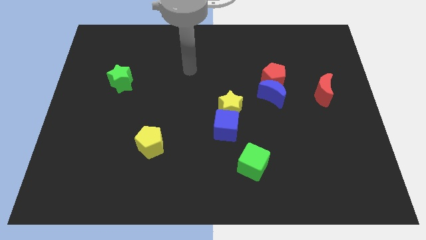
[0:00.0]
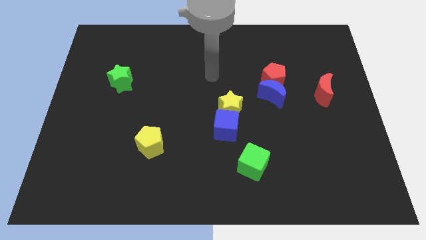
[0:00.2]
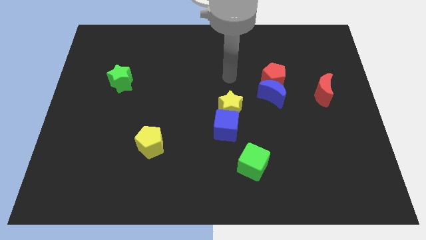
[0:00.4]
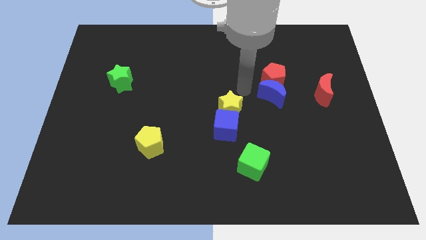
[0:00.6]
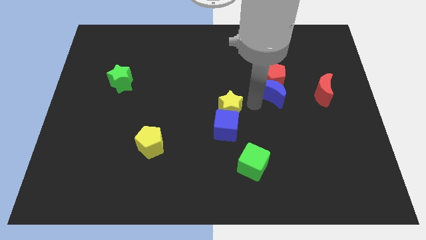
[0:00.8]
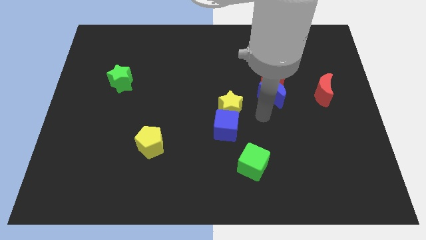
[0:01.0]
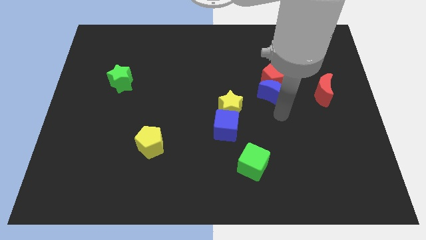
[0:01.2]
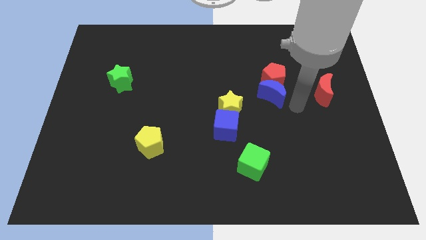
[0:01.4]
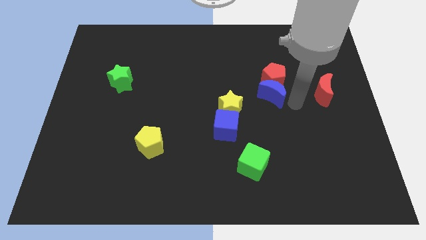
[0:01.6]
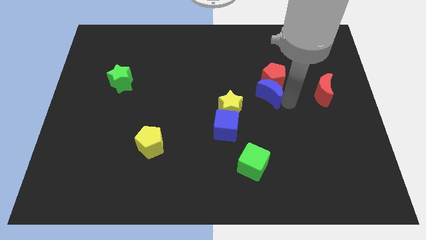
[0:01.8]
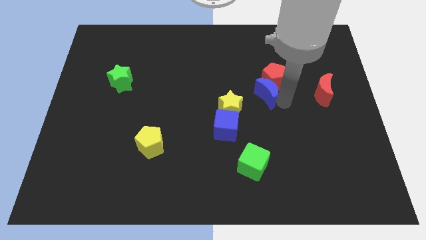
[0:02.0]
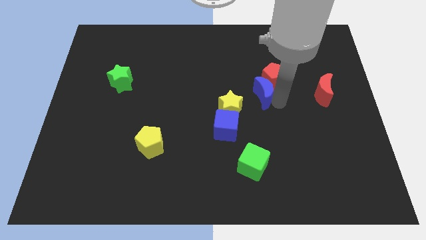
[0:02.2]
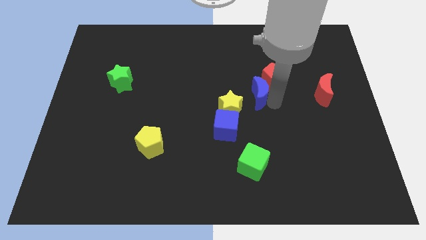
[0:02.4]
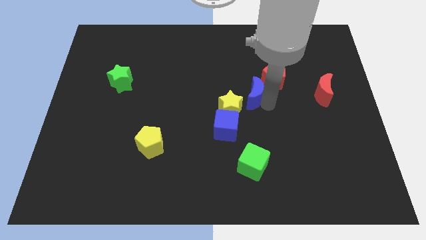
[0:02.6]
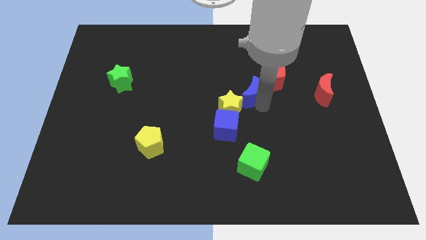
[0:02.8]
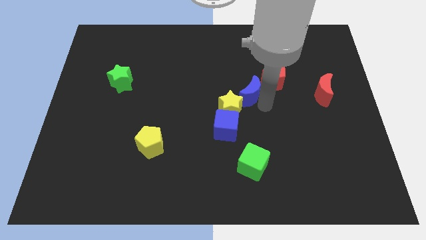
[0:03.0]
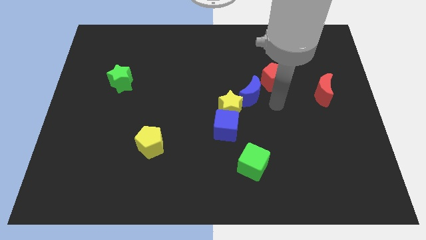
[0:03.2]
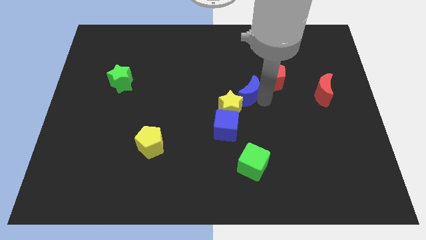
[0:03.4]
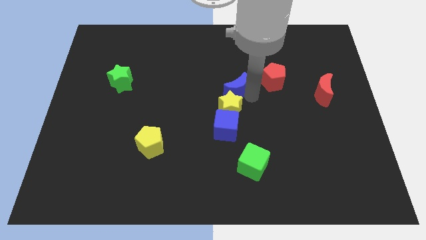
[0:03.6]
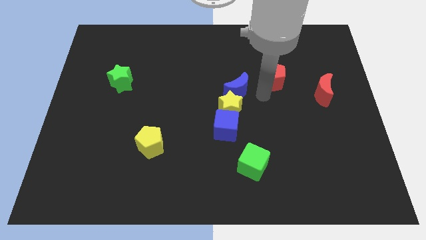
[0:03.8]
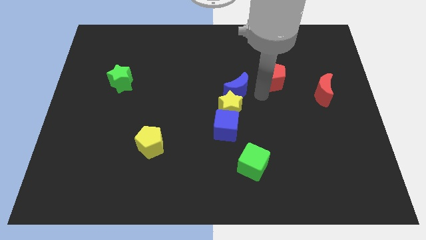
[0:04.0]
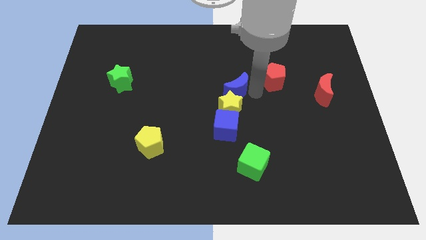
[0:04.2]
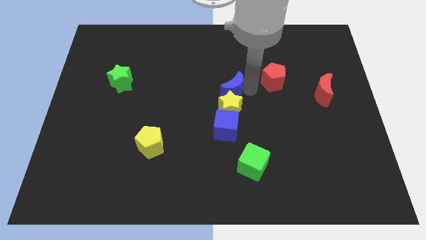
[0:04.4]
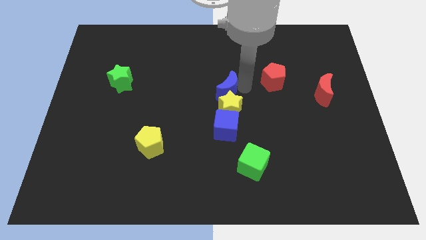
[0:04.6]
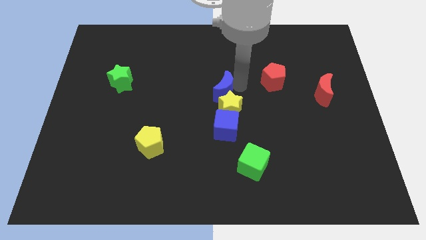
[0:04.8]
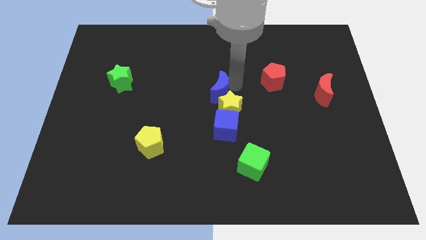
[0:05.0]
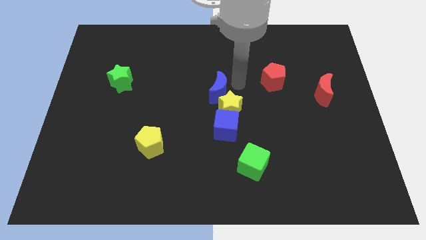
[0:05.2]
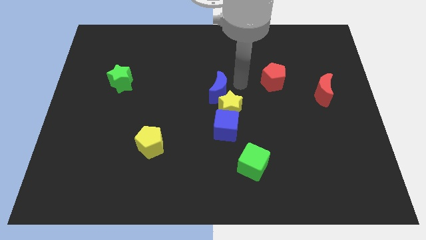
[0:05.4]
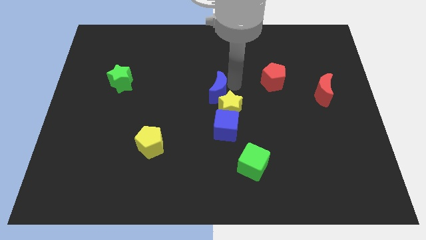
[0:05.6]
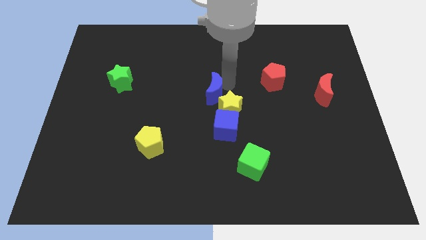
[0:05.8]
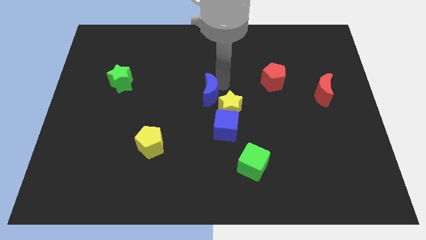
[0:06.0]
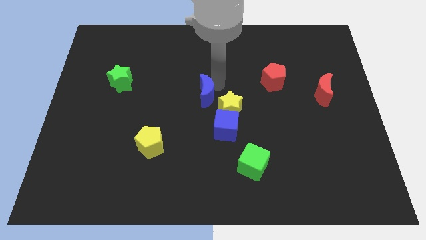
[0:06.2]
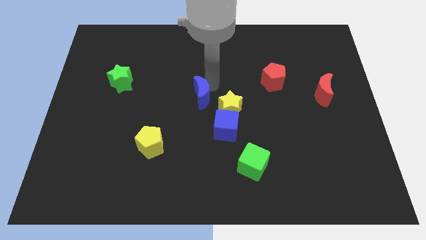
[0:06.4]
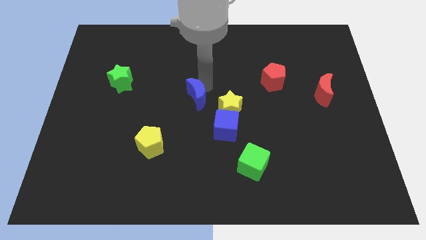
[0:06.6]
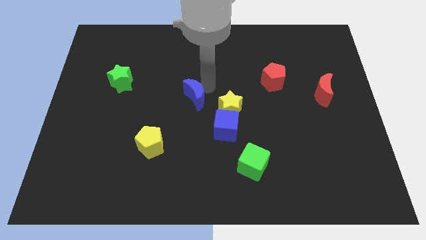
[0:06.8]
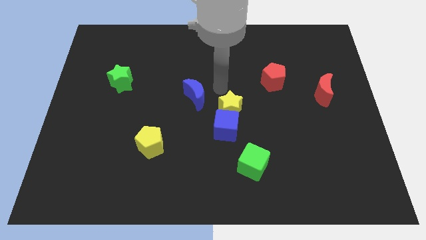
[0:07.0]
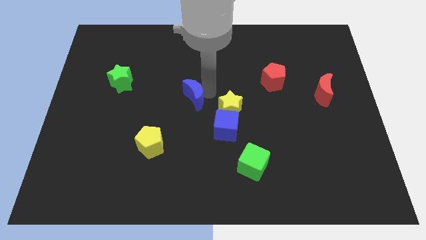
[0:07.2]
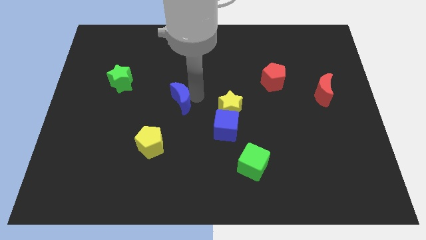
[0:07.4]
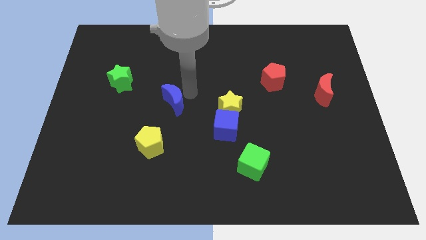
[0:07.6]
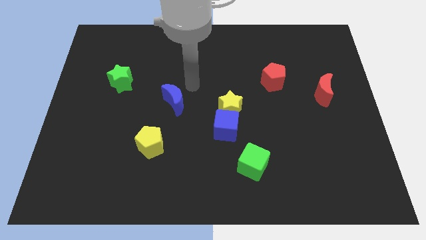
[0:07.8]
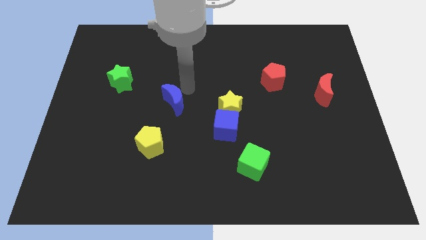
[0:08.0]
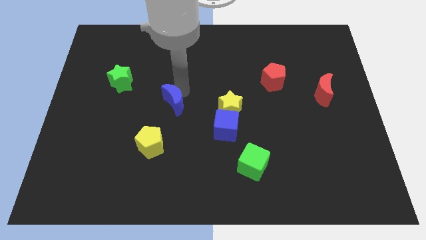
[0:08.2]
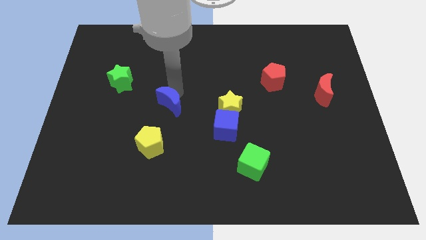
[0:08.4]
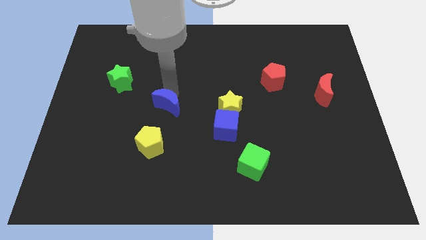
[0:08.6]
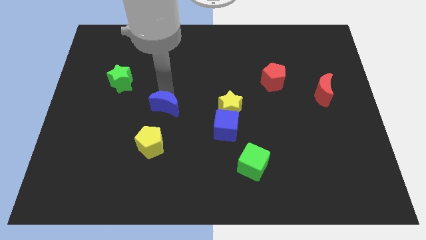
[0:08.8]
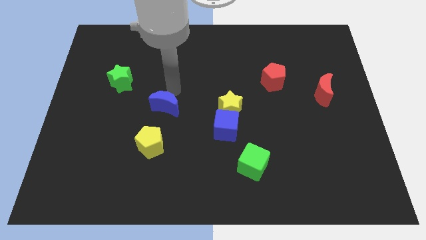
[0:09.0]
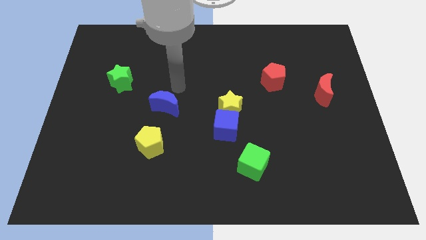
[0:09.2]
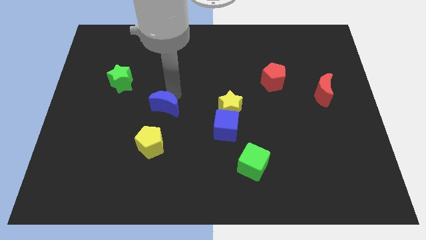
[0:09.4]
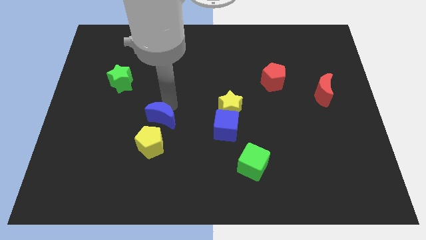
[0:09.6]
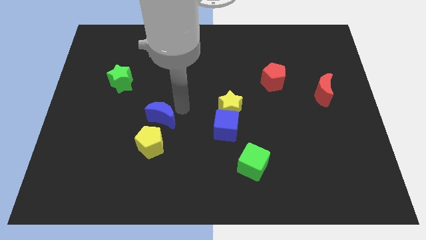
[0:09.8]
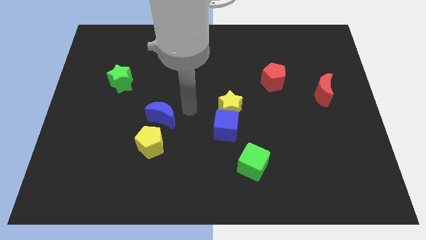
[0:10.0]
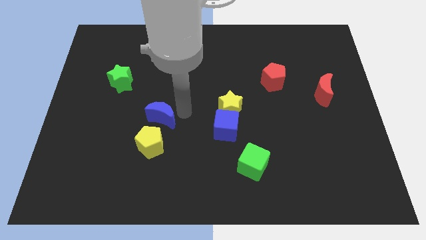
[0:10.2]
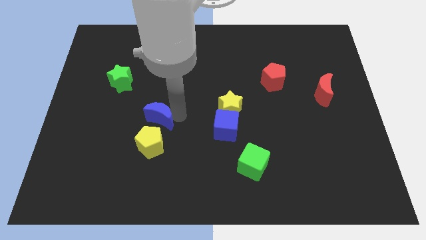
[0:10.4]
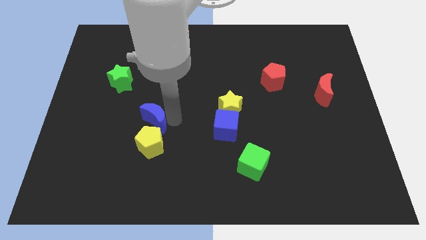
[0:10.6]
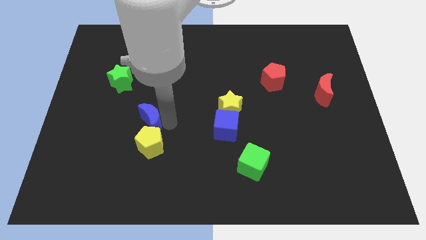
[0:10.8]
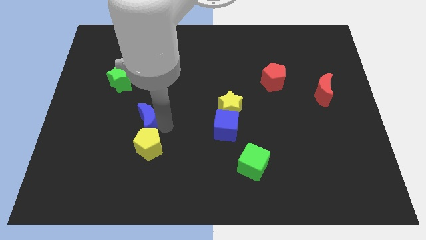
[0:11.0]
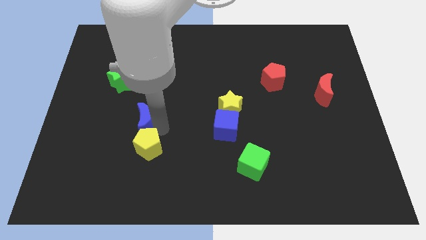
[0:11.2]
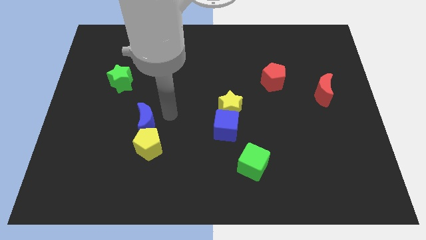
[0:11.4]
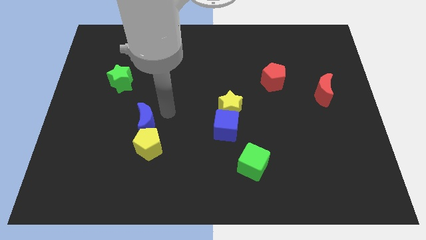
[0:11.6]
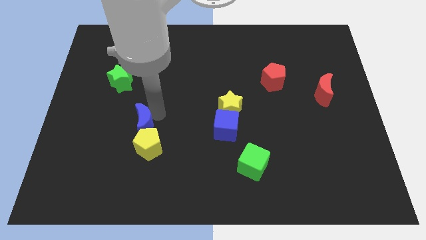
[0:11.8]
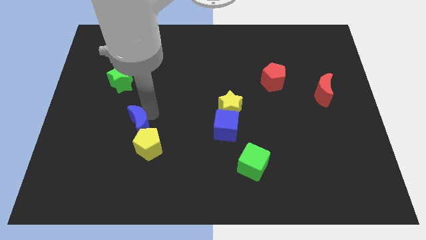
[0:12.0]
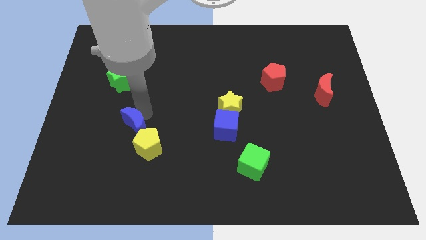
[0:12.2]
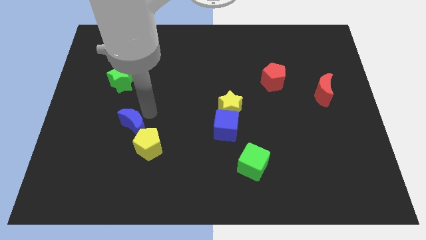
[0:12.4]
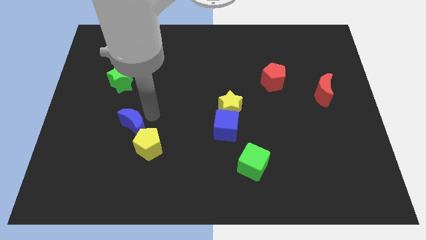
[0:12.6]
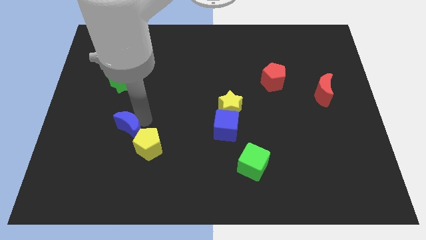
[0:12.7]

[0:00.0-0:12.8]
put the blue moon just left of the yellow pentagon
